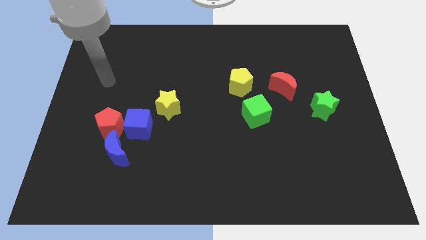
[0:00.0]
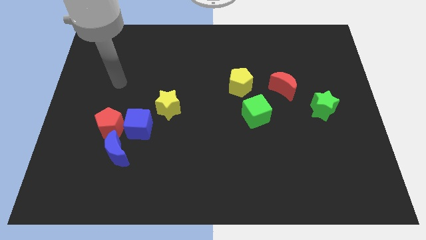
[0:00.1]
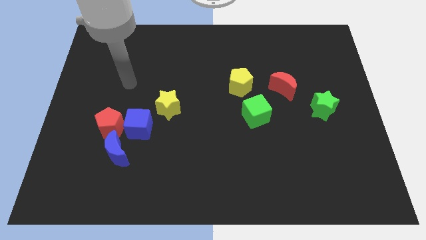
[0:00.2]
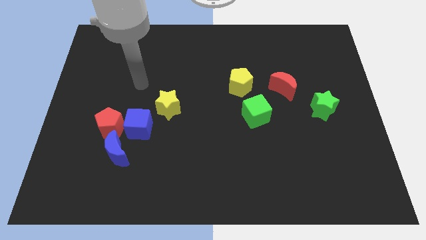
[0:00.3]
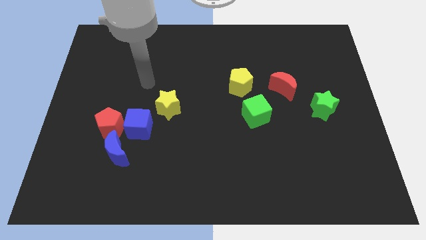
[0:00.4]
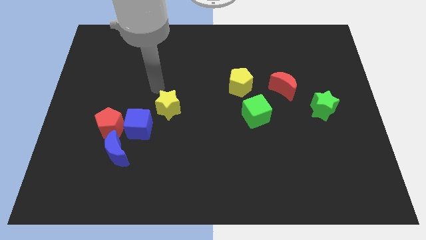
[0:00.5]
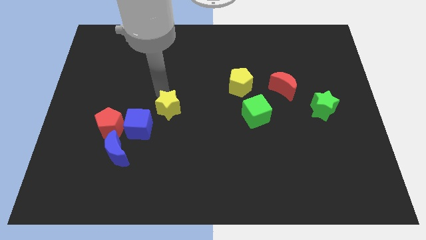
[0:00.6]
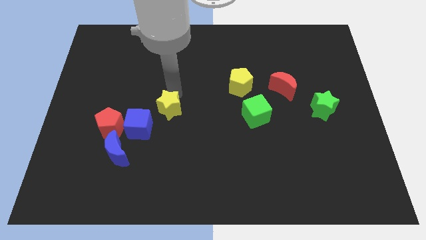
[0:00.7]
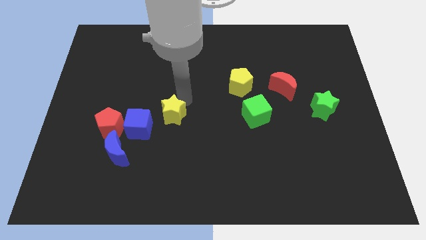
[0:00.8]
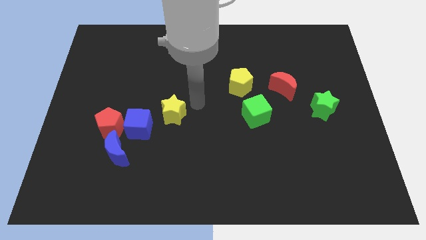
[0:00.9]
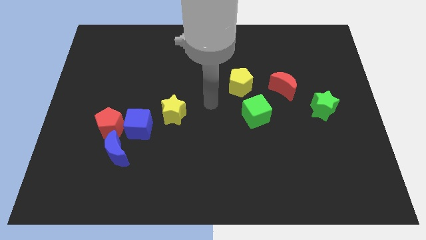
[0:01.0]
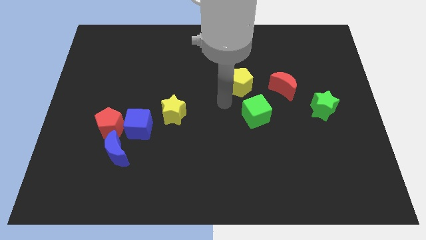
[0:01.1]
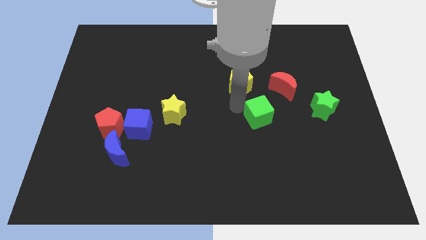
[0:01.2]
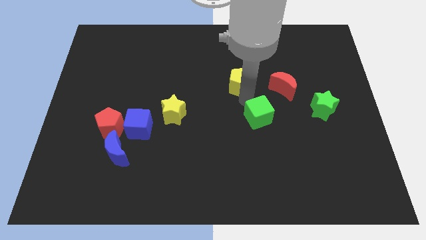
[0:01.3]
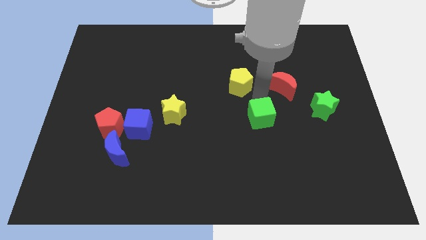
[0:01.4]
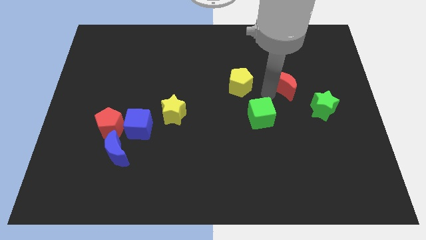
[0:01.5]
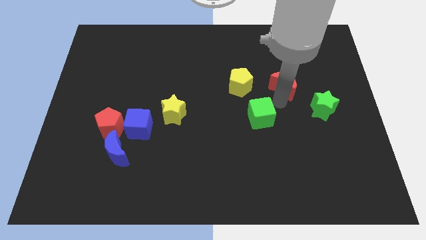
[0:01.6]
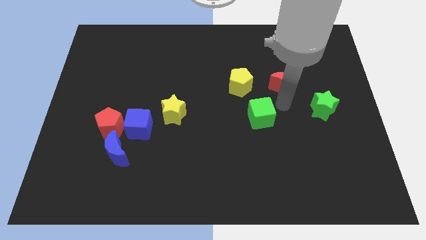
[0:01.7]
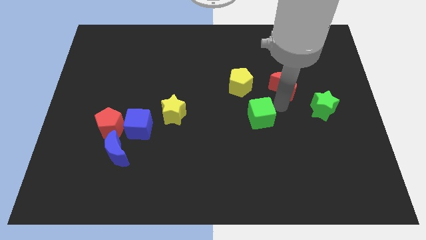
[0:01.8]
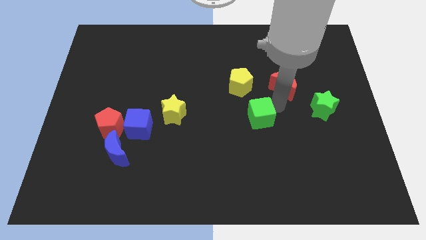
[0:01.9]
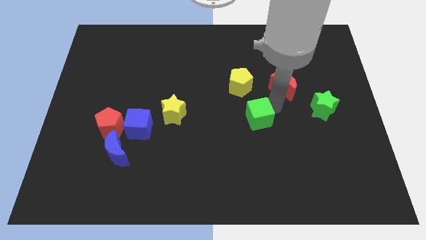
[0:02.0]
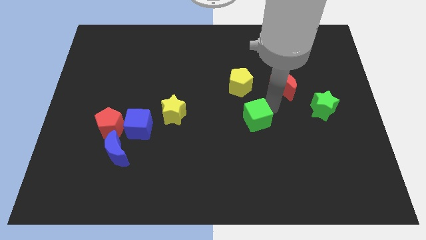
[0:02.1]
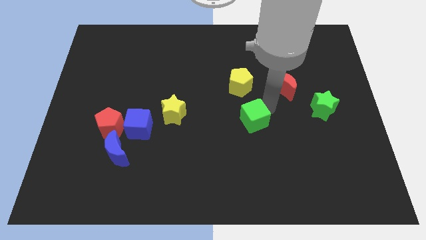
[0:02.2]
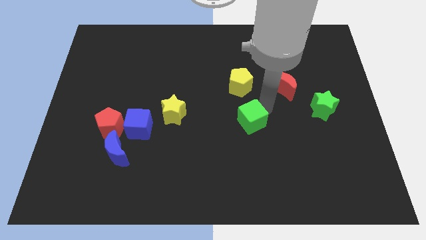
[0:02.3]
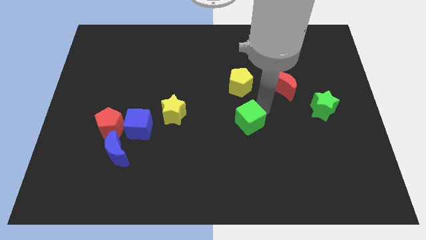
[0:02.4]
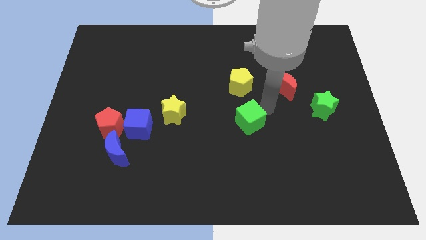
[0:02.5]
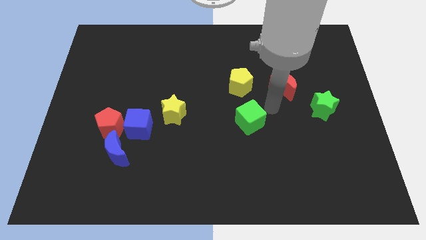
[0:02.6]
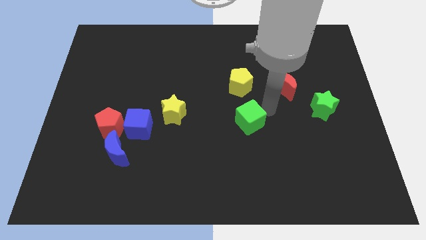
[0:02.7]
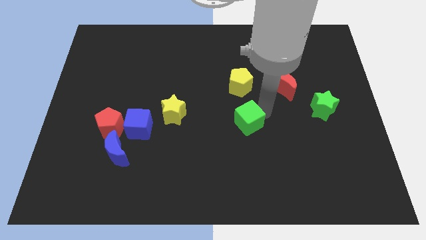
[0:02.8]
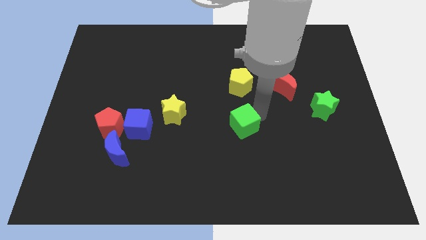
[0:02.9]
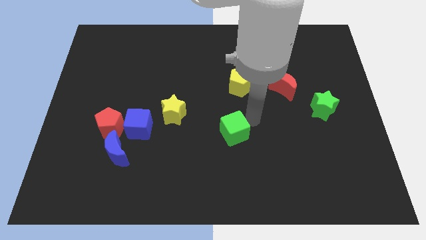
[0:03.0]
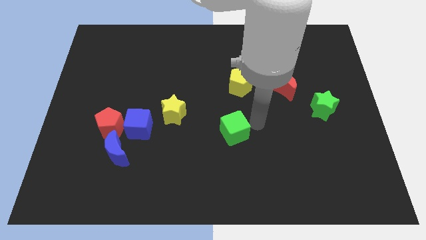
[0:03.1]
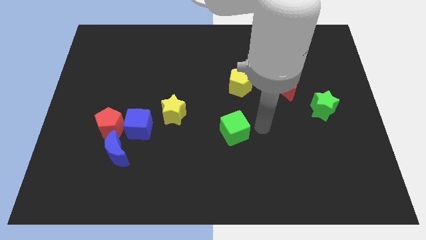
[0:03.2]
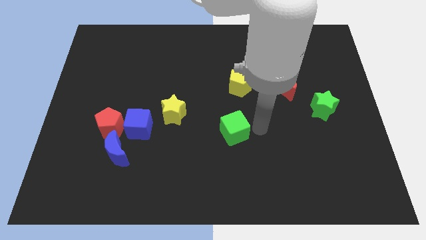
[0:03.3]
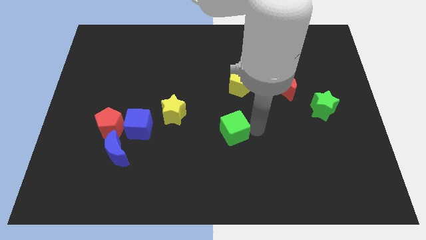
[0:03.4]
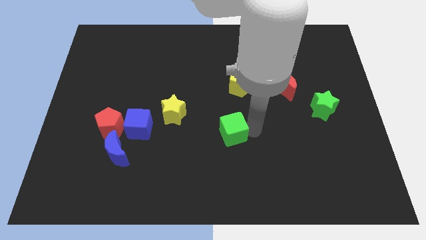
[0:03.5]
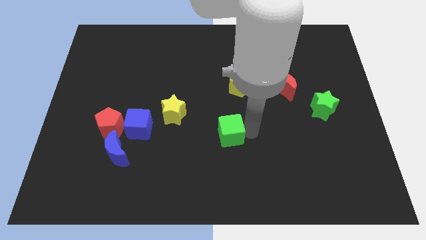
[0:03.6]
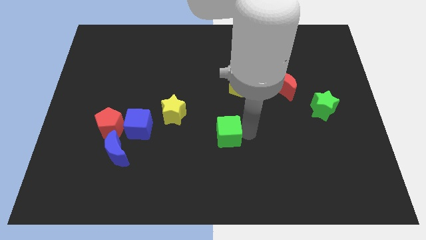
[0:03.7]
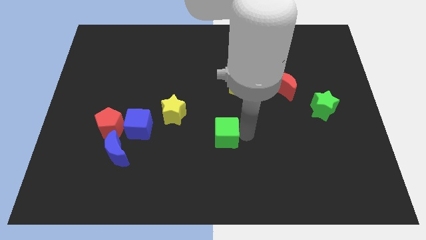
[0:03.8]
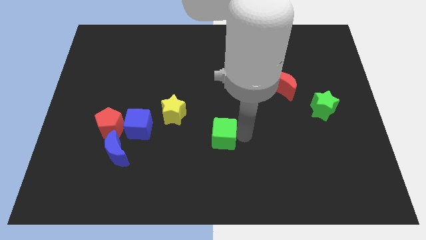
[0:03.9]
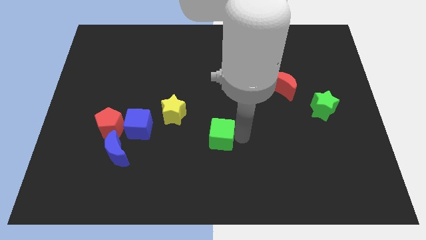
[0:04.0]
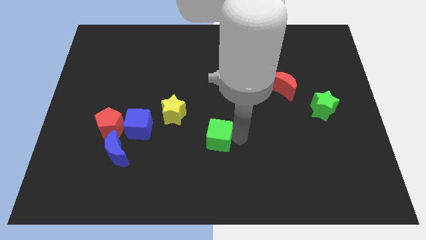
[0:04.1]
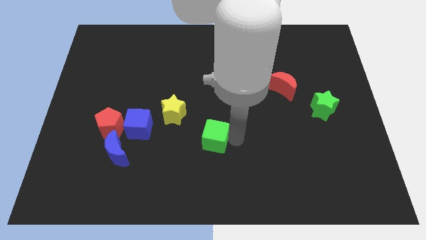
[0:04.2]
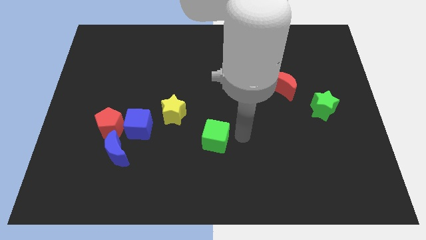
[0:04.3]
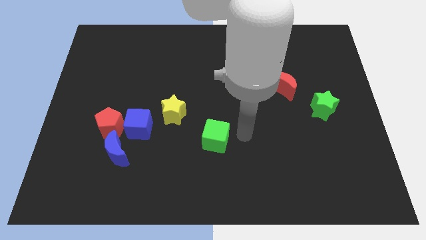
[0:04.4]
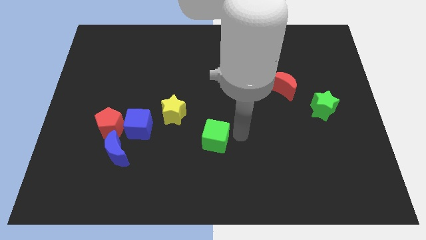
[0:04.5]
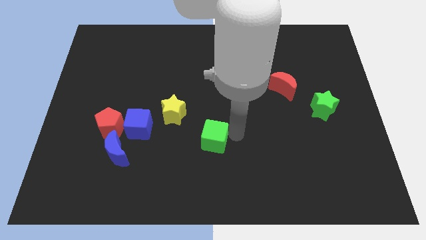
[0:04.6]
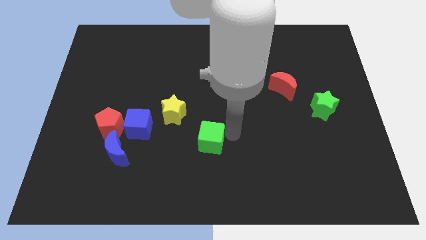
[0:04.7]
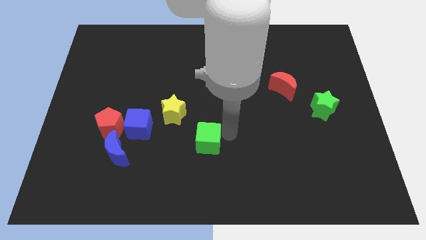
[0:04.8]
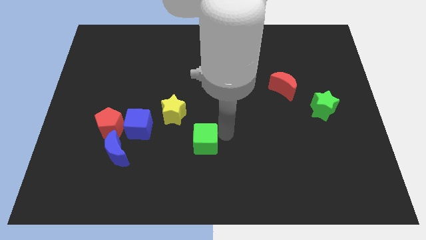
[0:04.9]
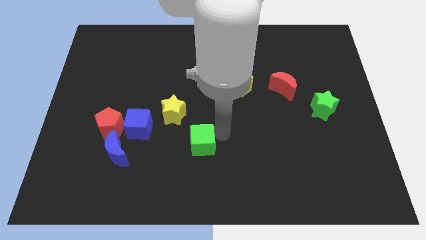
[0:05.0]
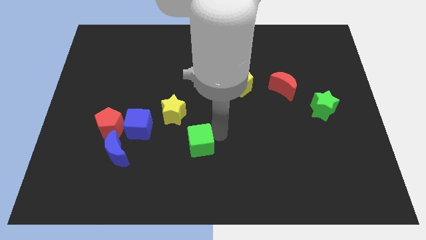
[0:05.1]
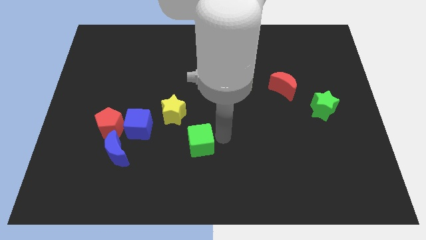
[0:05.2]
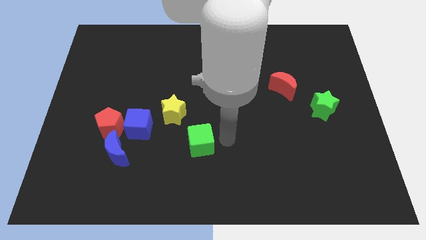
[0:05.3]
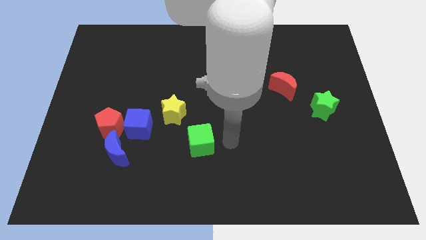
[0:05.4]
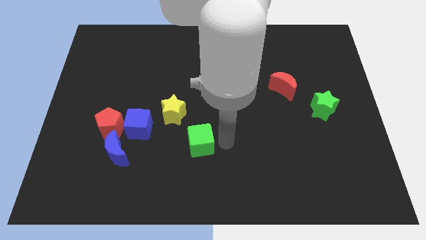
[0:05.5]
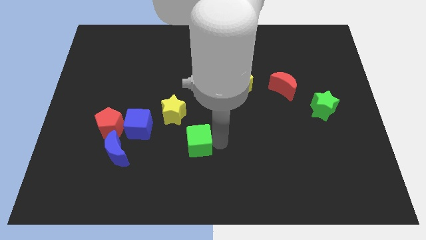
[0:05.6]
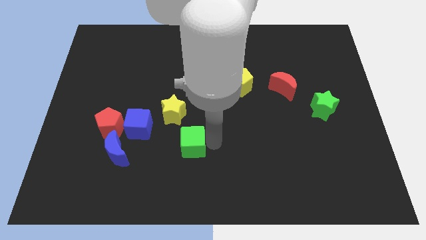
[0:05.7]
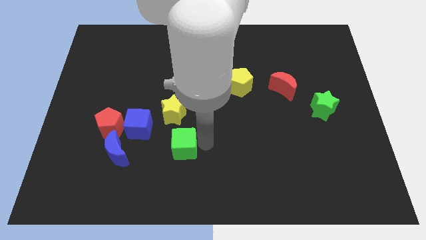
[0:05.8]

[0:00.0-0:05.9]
slide the green cube to the bottom right of the blue cube

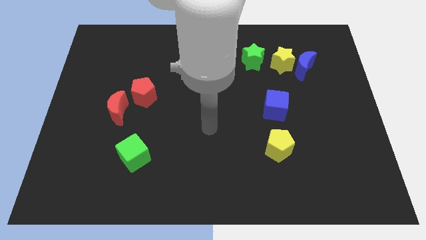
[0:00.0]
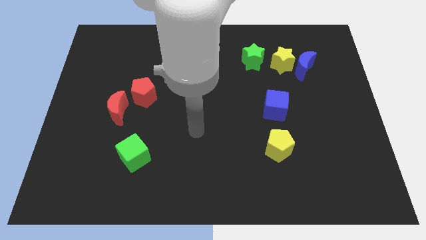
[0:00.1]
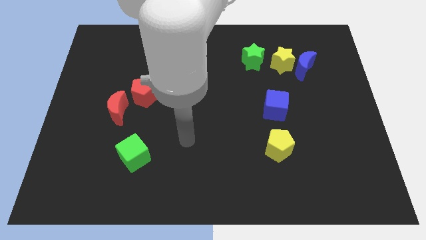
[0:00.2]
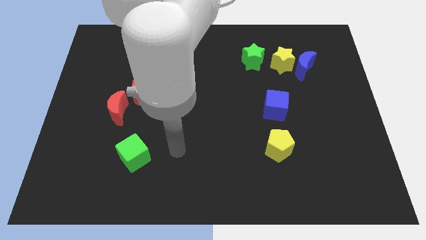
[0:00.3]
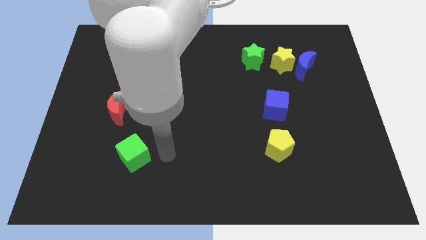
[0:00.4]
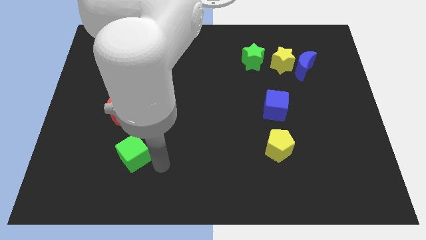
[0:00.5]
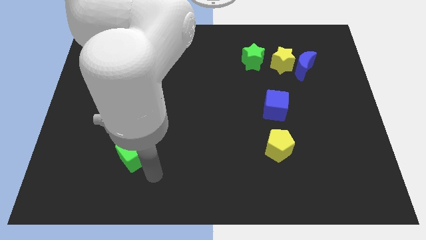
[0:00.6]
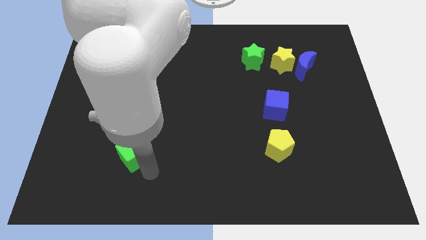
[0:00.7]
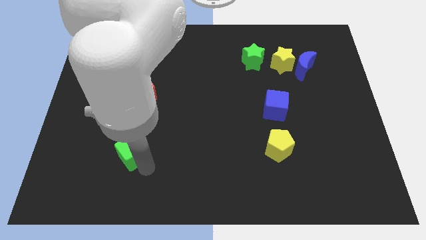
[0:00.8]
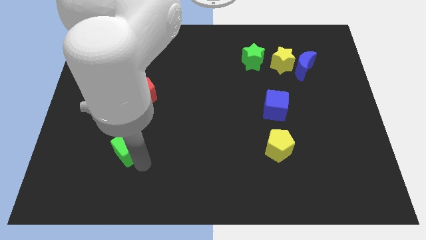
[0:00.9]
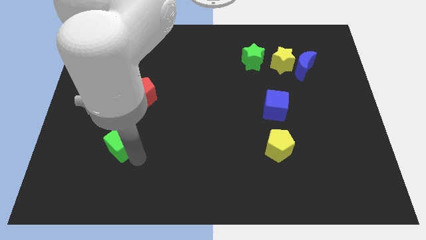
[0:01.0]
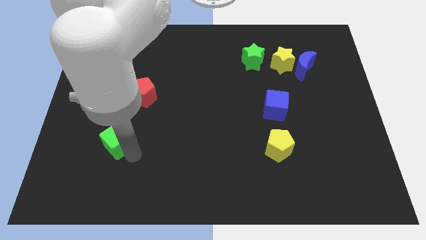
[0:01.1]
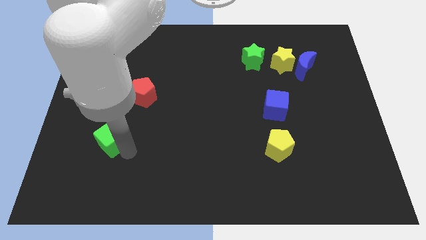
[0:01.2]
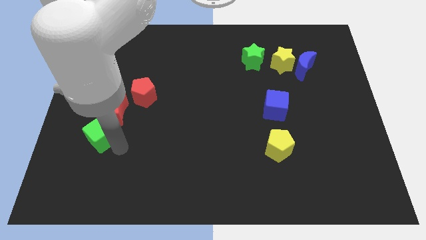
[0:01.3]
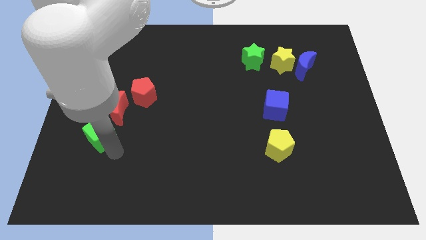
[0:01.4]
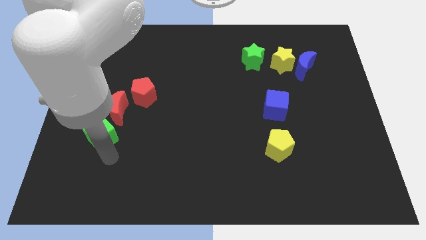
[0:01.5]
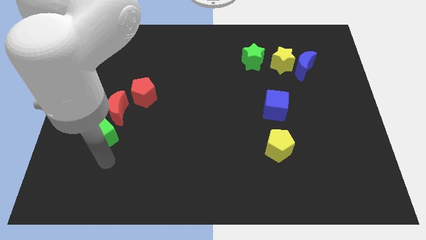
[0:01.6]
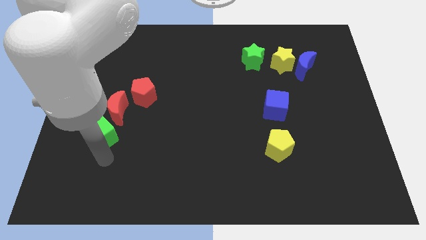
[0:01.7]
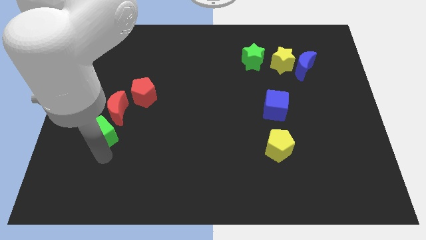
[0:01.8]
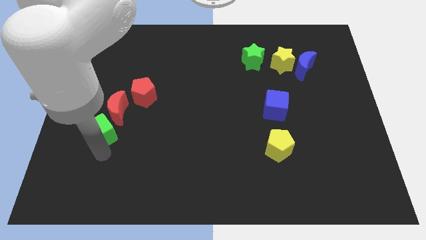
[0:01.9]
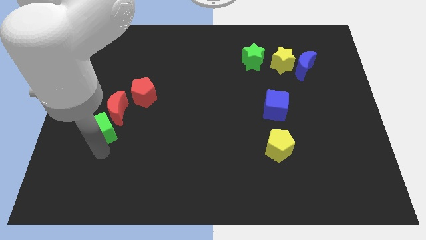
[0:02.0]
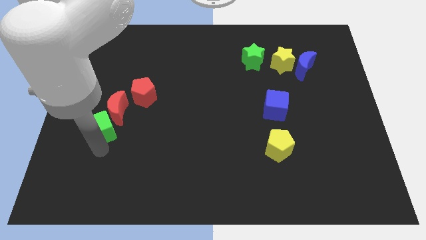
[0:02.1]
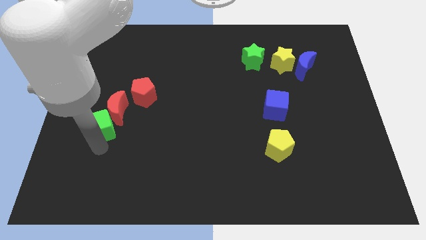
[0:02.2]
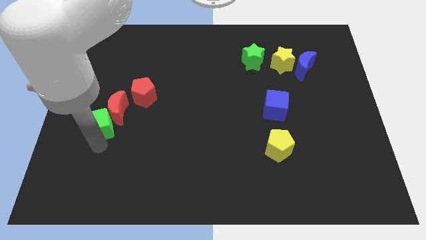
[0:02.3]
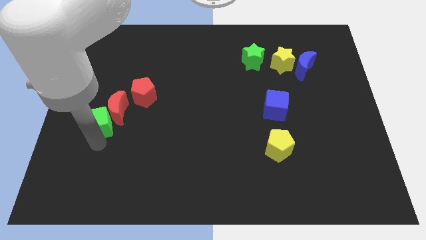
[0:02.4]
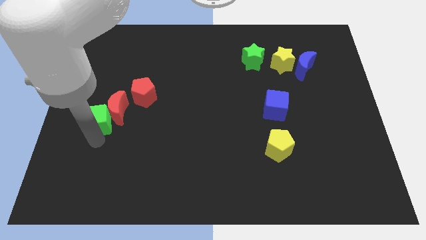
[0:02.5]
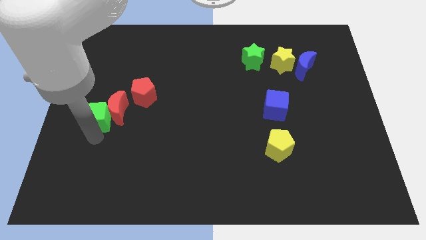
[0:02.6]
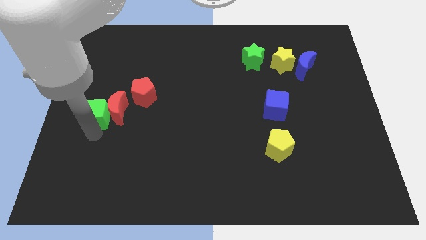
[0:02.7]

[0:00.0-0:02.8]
put the green cube to the top left of the red moon
